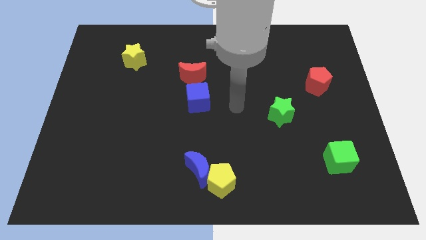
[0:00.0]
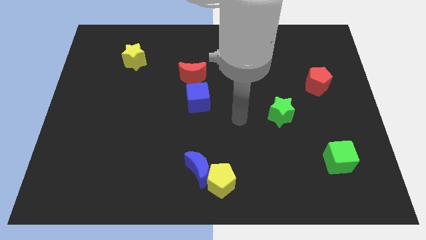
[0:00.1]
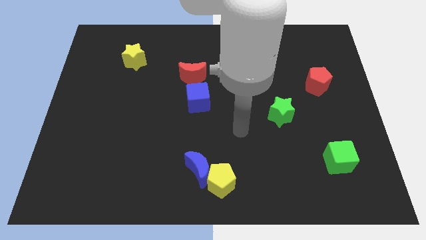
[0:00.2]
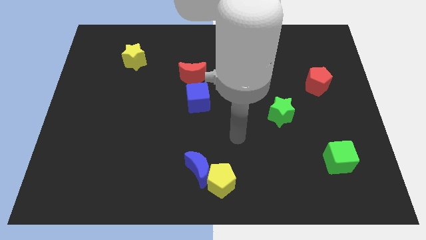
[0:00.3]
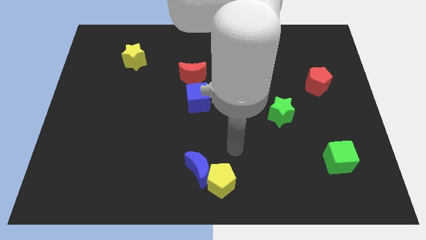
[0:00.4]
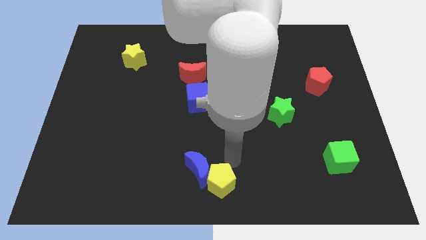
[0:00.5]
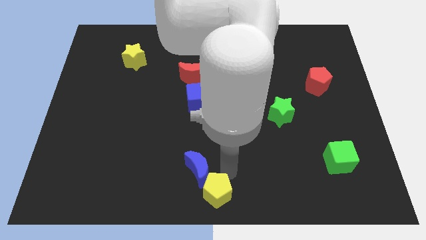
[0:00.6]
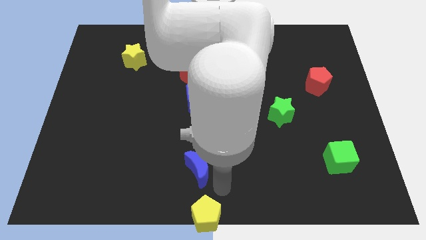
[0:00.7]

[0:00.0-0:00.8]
pull the blue moon apart from the yellow pentagon

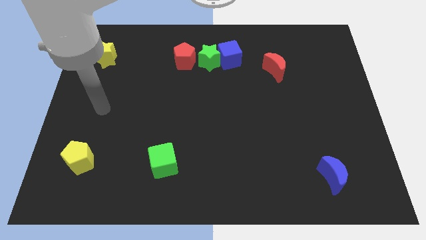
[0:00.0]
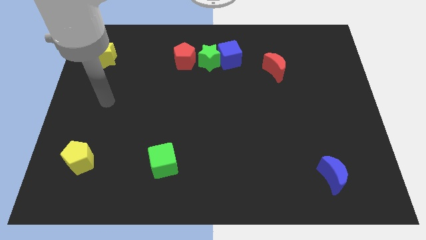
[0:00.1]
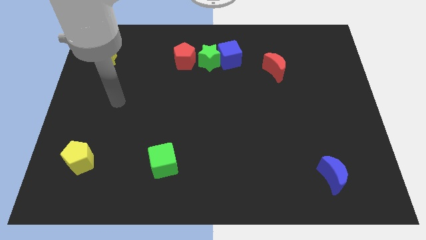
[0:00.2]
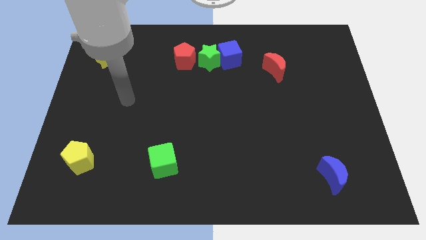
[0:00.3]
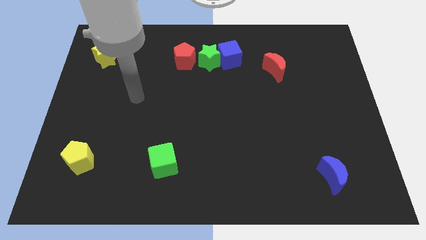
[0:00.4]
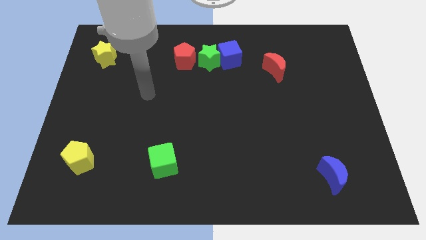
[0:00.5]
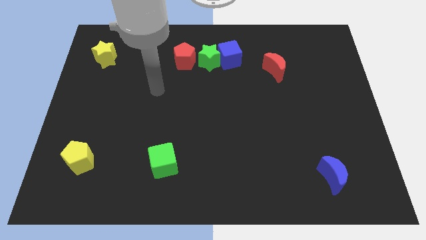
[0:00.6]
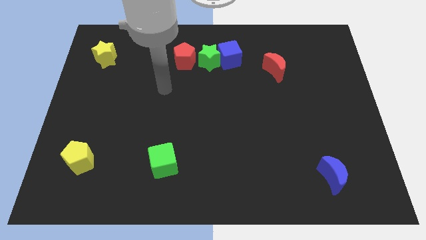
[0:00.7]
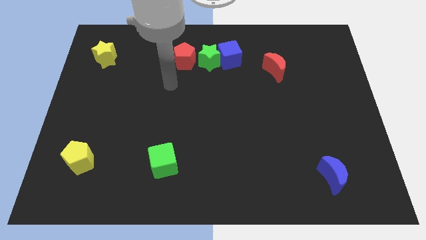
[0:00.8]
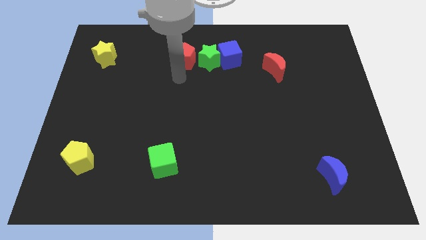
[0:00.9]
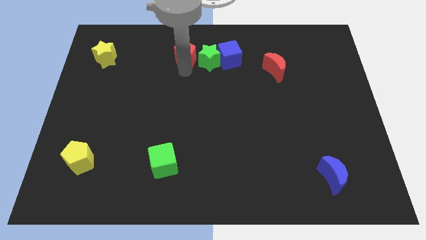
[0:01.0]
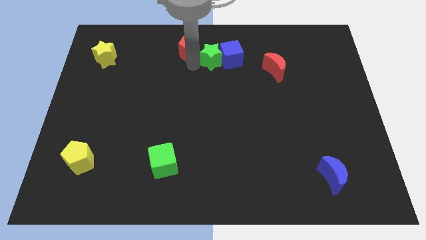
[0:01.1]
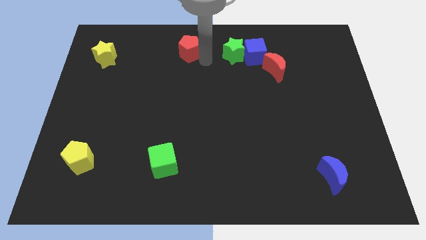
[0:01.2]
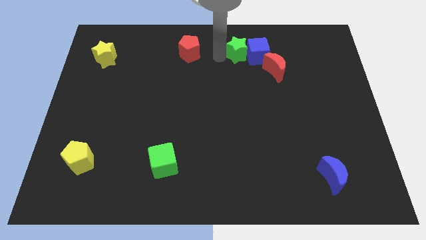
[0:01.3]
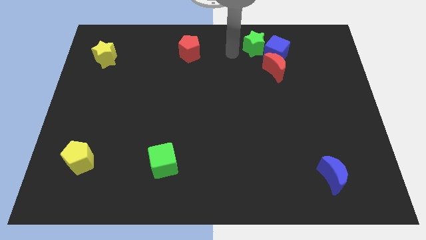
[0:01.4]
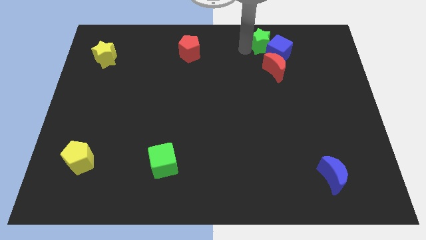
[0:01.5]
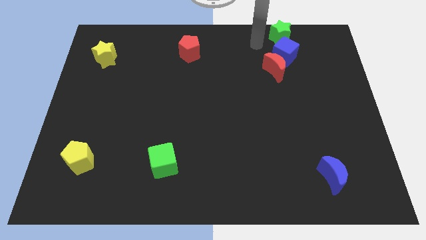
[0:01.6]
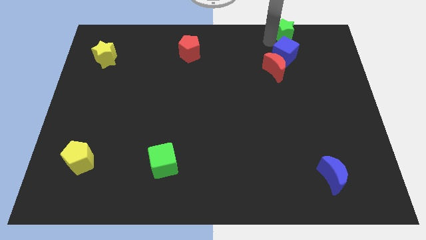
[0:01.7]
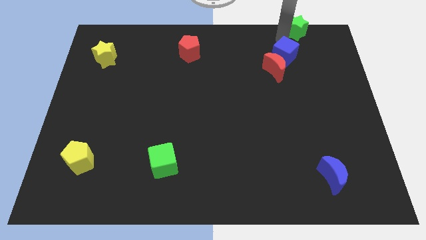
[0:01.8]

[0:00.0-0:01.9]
move the blue cube away from the green star

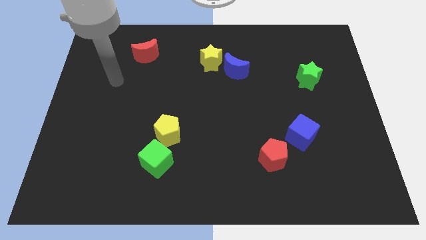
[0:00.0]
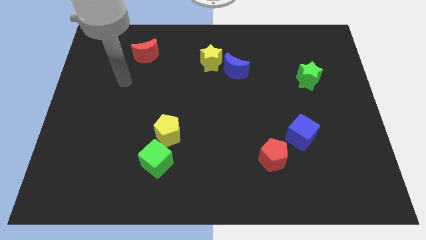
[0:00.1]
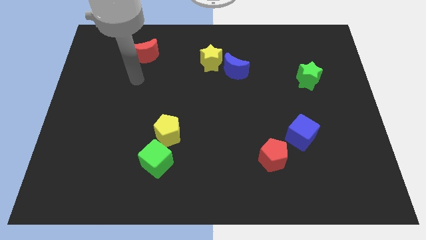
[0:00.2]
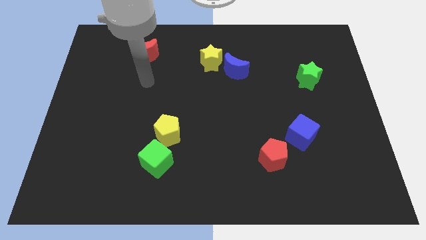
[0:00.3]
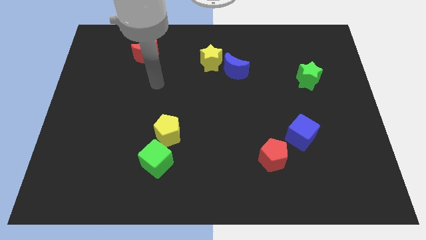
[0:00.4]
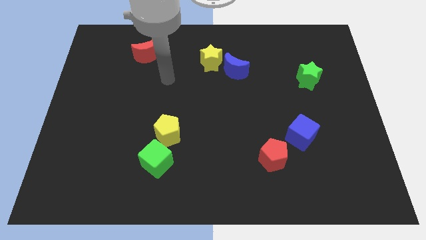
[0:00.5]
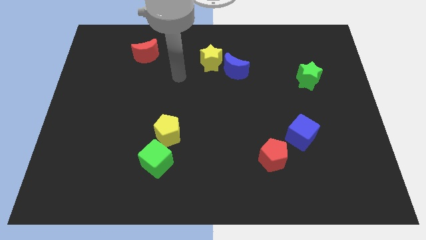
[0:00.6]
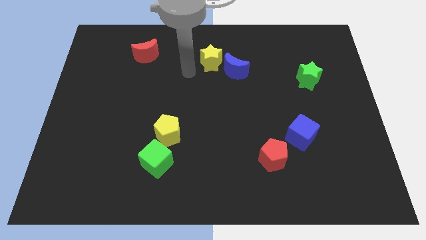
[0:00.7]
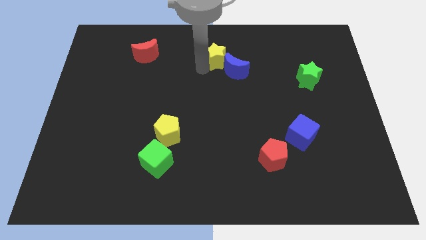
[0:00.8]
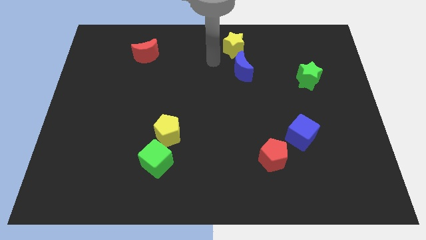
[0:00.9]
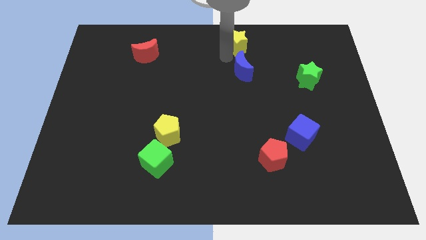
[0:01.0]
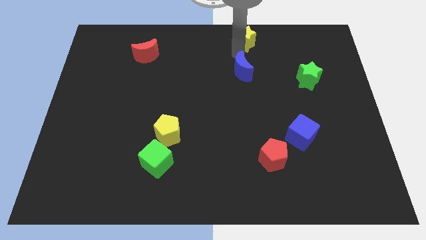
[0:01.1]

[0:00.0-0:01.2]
separate the blue moon from the yellow star

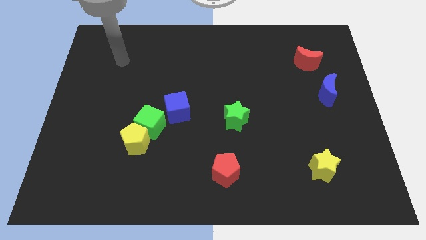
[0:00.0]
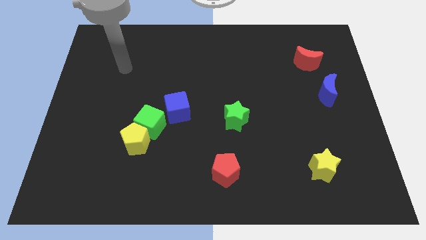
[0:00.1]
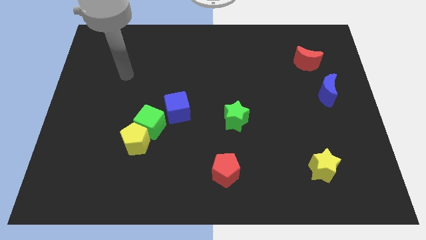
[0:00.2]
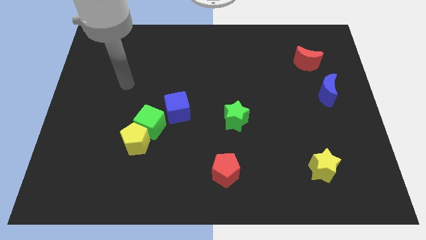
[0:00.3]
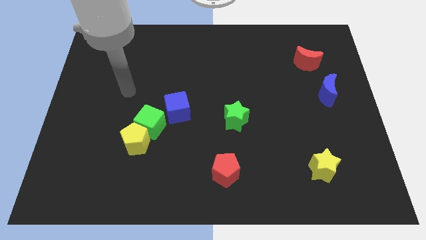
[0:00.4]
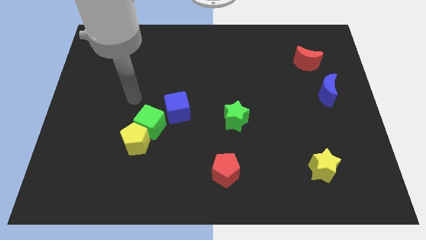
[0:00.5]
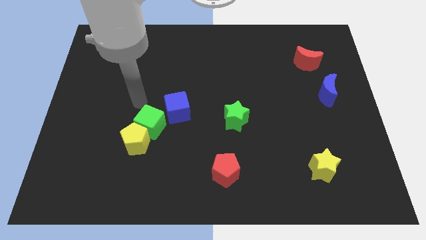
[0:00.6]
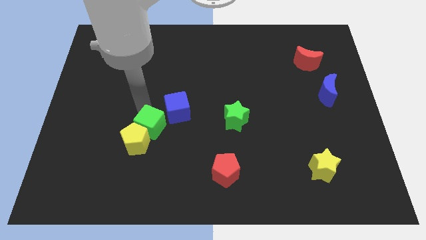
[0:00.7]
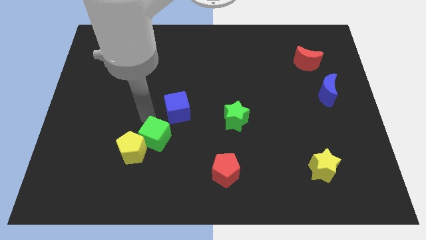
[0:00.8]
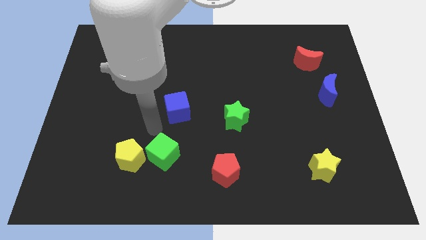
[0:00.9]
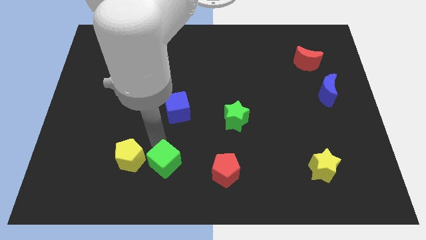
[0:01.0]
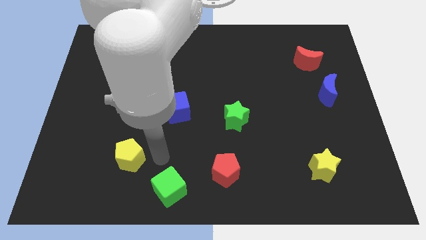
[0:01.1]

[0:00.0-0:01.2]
separate the yellow pentagon from the green cube

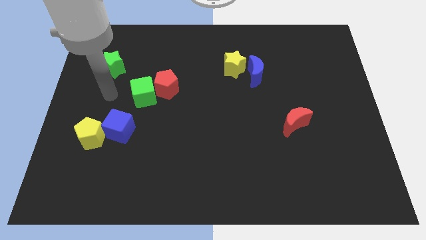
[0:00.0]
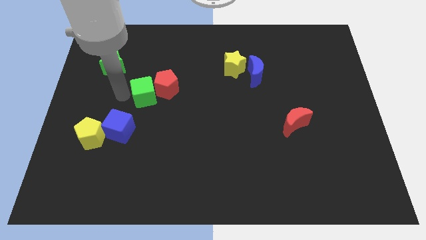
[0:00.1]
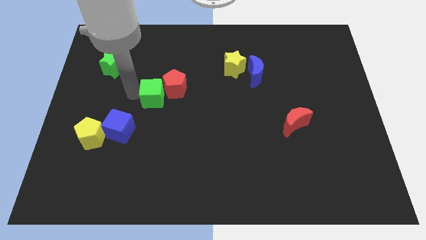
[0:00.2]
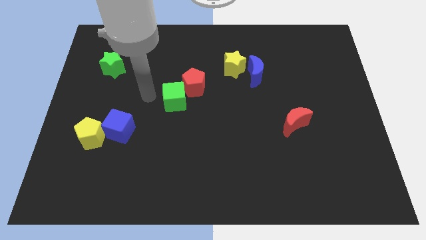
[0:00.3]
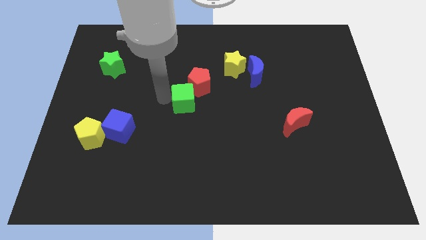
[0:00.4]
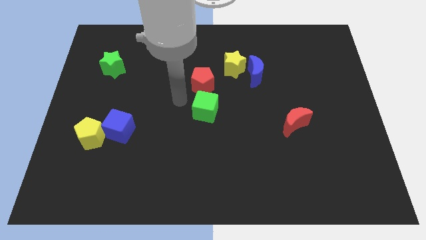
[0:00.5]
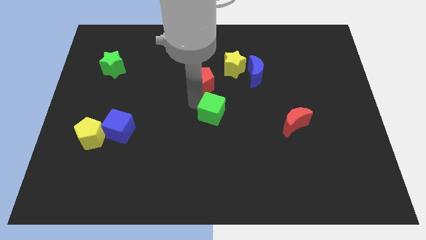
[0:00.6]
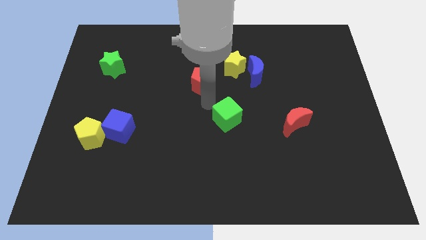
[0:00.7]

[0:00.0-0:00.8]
separate the red pentagon from the green cube

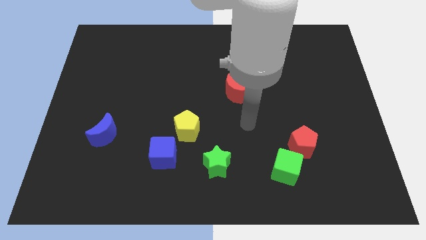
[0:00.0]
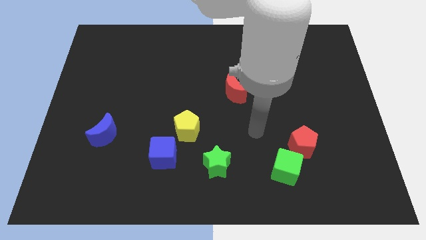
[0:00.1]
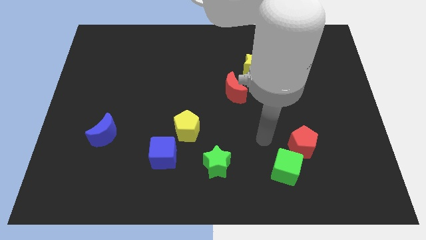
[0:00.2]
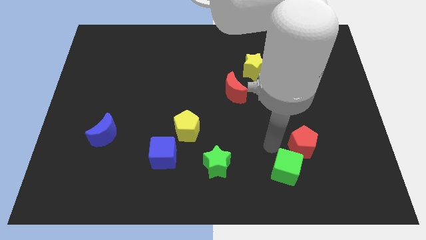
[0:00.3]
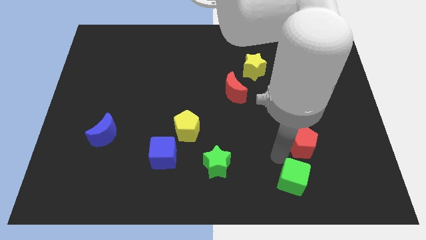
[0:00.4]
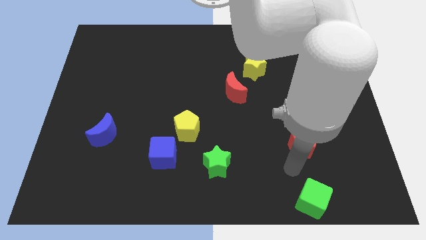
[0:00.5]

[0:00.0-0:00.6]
pull the red pentagon apart from the green cube

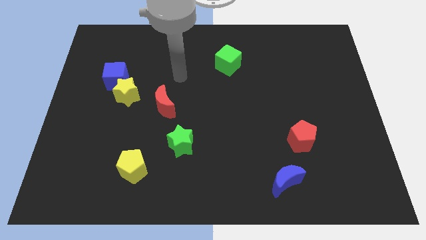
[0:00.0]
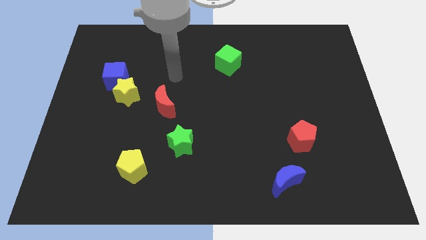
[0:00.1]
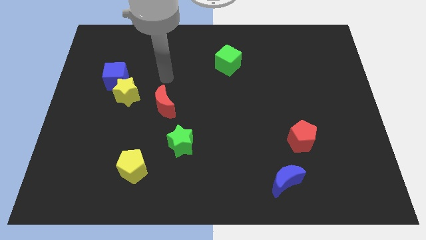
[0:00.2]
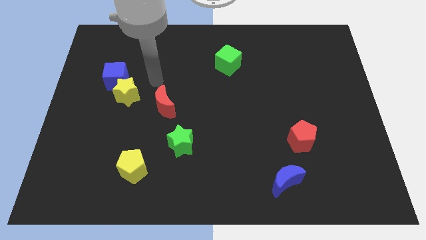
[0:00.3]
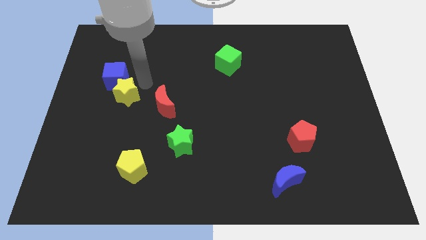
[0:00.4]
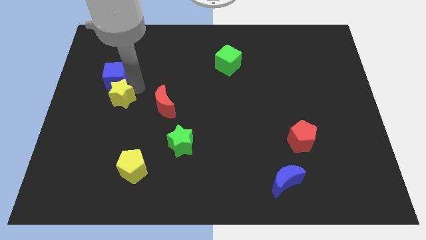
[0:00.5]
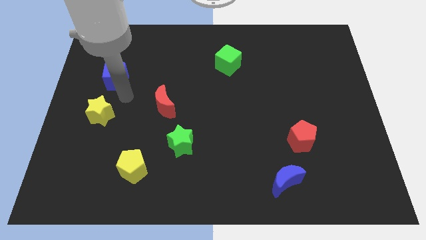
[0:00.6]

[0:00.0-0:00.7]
move the blue cube away from the yellow star

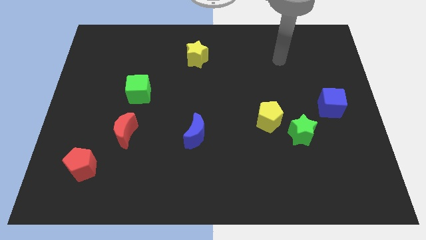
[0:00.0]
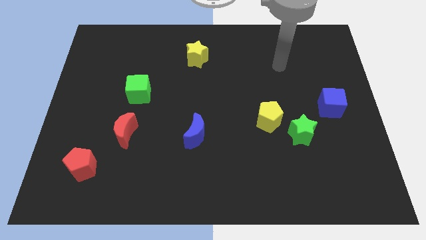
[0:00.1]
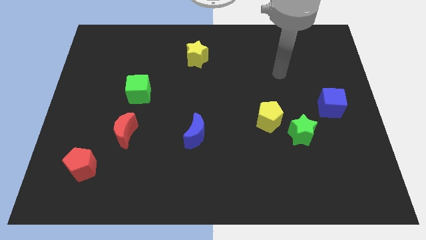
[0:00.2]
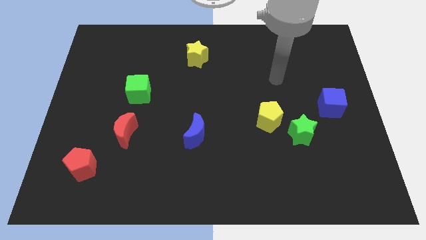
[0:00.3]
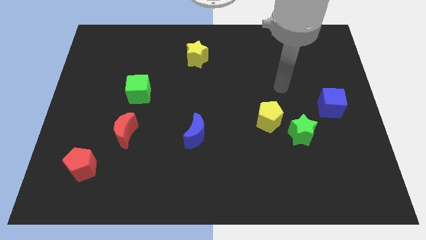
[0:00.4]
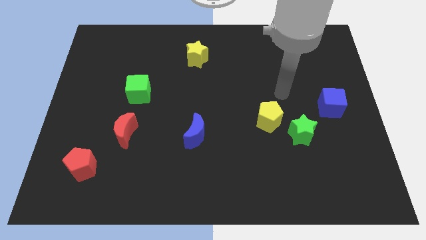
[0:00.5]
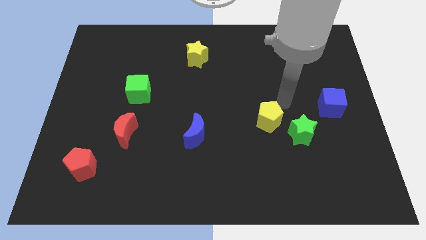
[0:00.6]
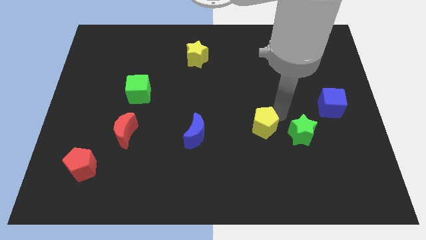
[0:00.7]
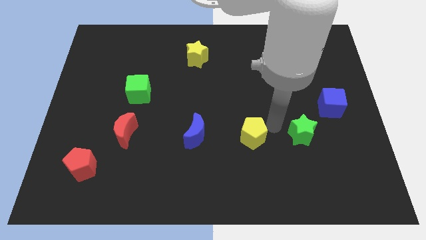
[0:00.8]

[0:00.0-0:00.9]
separate the green star from the yellow pentagon

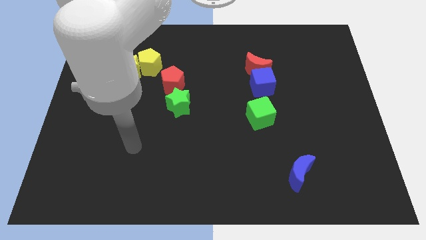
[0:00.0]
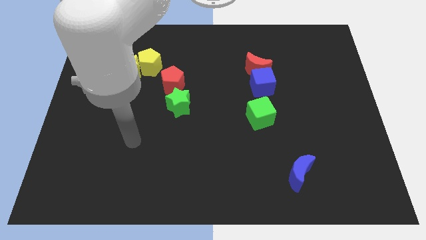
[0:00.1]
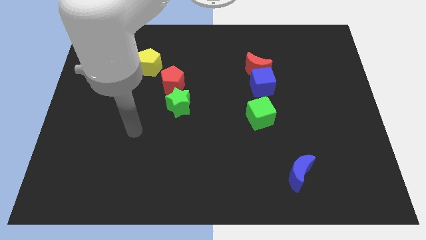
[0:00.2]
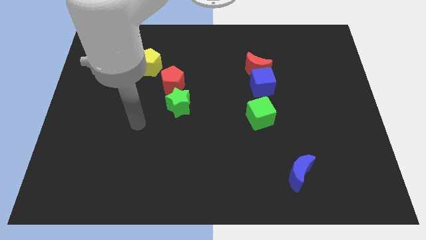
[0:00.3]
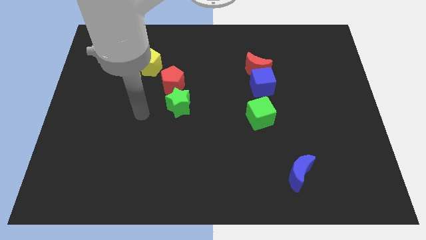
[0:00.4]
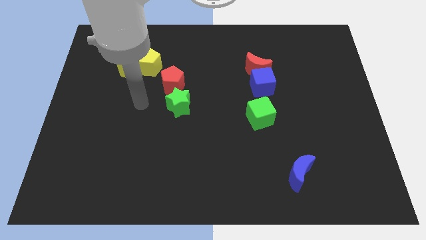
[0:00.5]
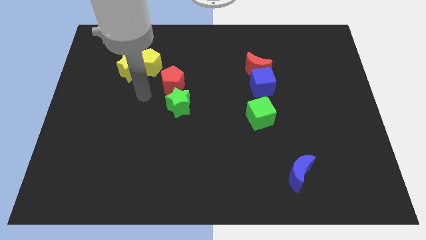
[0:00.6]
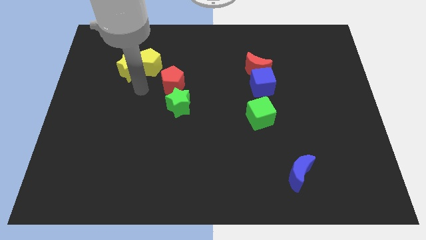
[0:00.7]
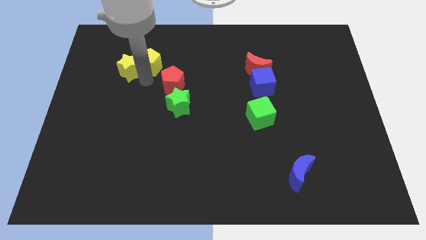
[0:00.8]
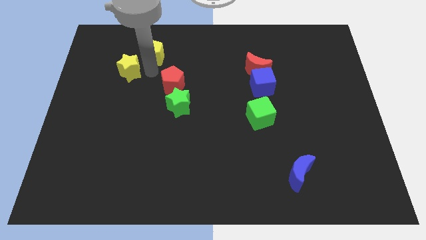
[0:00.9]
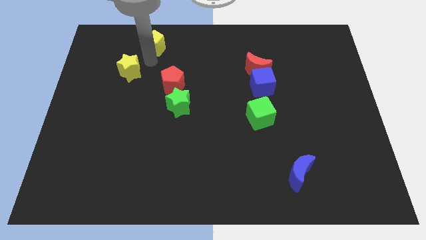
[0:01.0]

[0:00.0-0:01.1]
pull the yellow star apart from the yellow pentagon

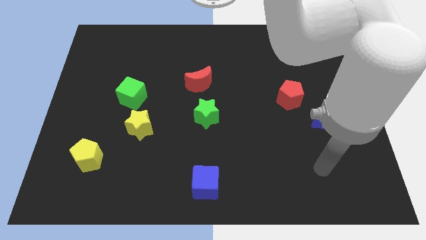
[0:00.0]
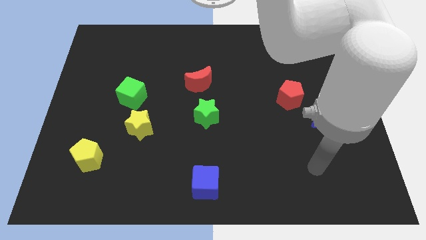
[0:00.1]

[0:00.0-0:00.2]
move the green cube away from the yellow star
